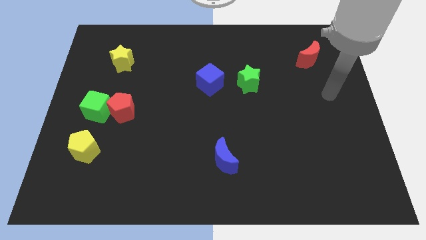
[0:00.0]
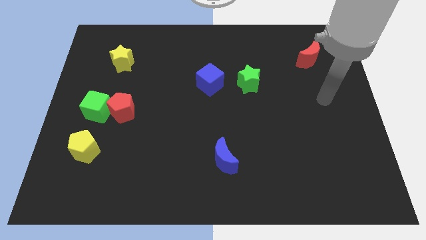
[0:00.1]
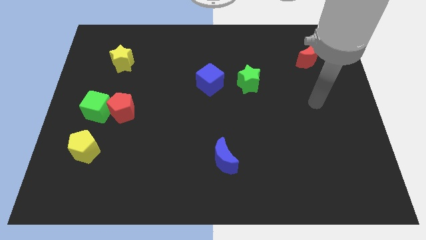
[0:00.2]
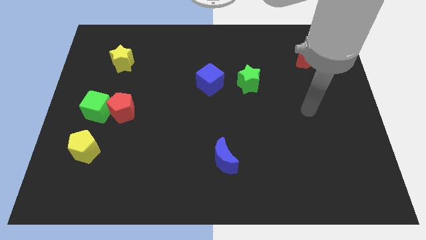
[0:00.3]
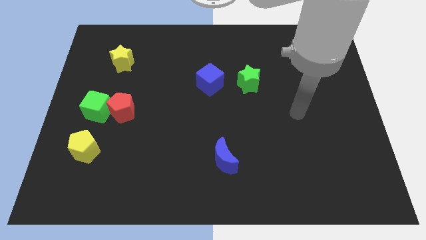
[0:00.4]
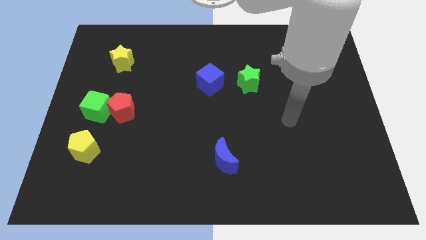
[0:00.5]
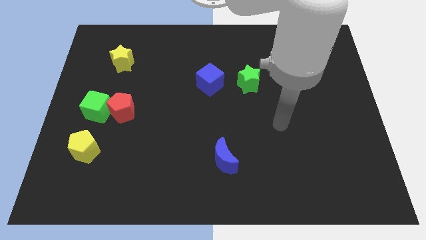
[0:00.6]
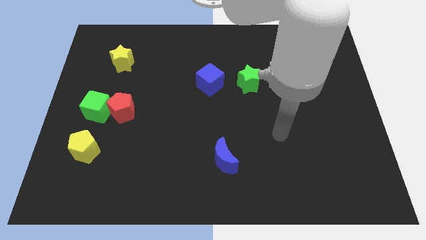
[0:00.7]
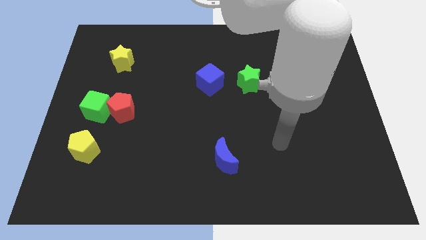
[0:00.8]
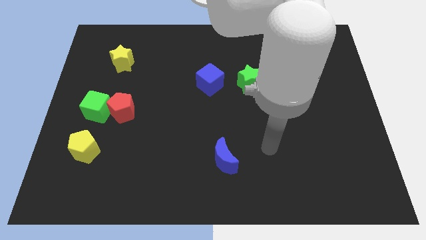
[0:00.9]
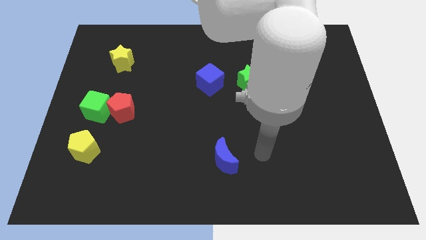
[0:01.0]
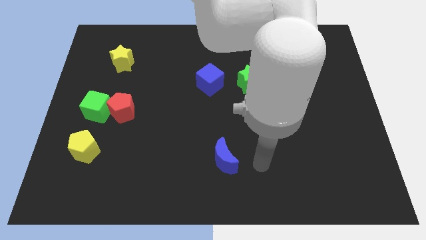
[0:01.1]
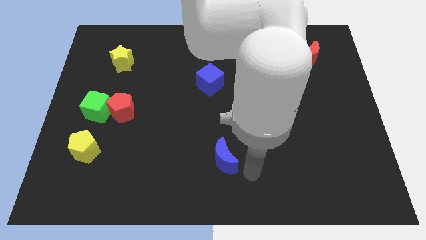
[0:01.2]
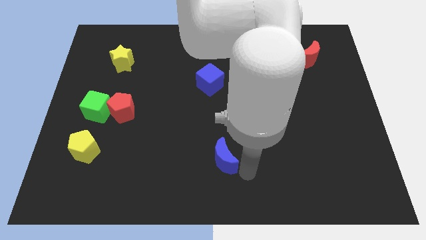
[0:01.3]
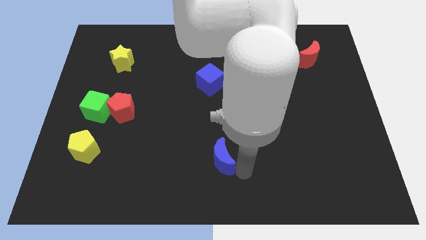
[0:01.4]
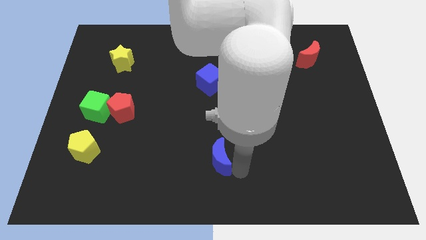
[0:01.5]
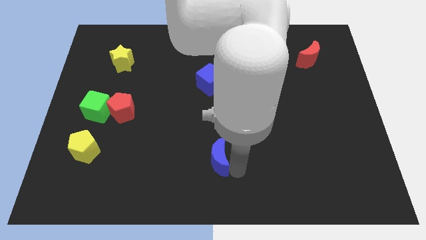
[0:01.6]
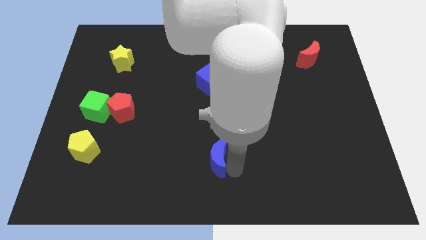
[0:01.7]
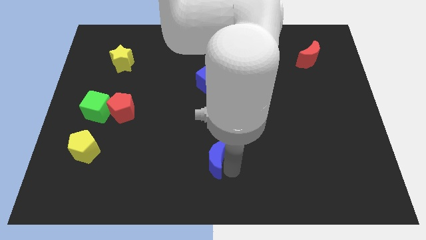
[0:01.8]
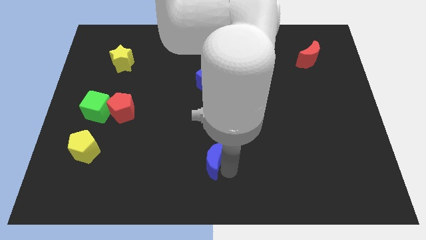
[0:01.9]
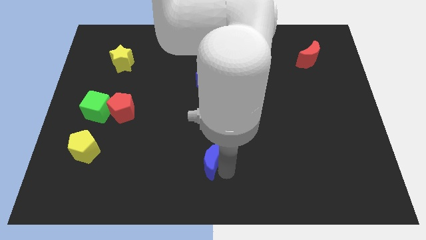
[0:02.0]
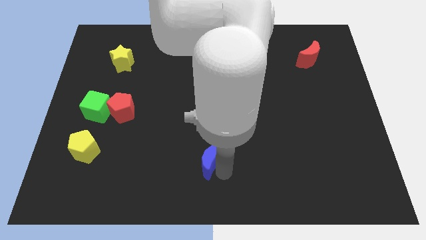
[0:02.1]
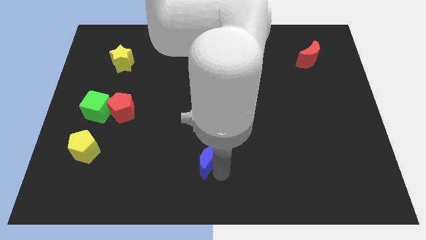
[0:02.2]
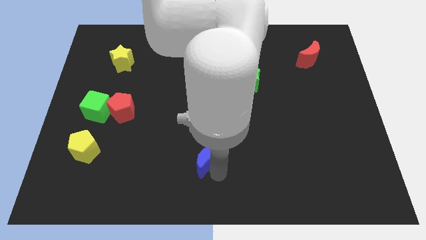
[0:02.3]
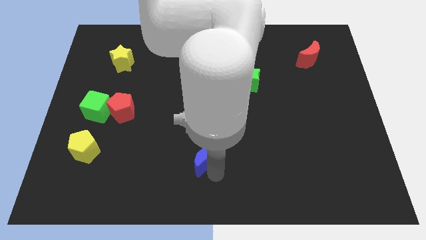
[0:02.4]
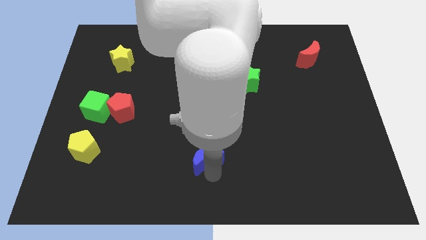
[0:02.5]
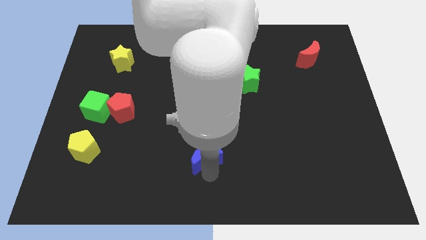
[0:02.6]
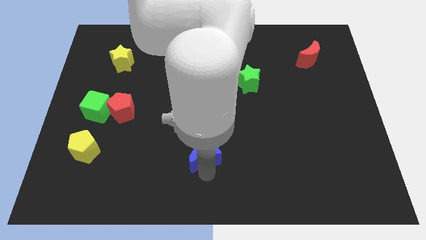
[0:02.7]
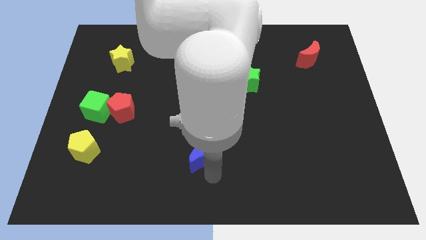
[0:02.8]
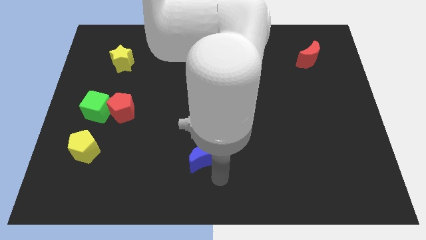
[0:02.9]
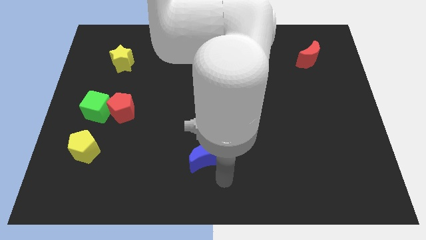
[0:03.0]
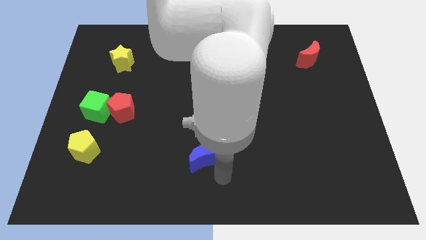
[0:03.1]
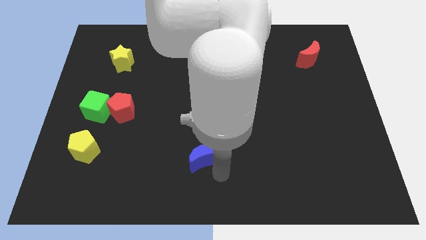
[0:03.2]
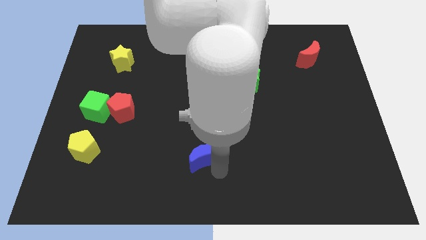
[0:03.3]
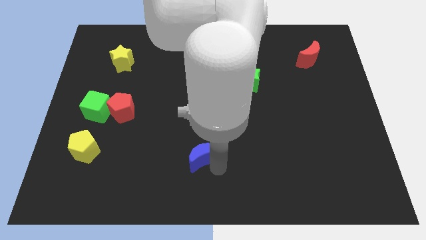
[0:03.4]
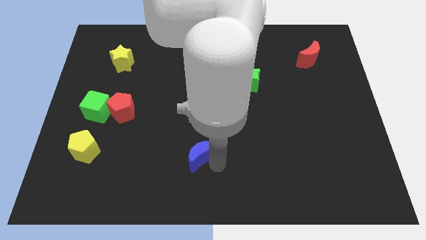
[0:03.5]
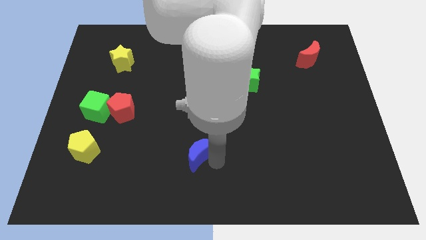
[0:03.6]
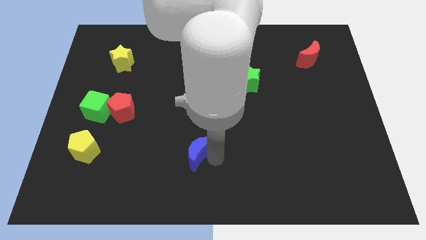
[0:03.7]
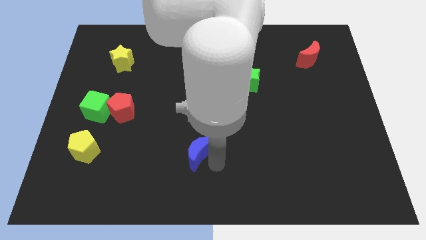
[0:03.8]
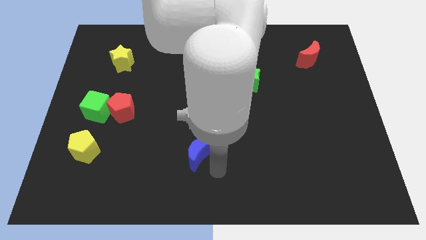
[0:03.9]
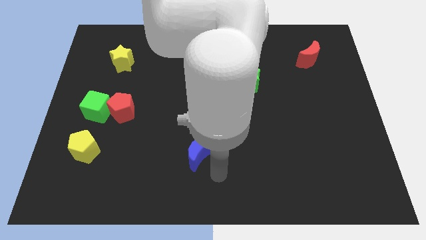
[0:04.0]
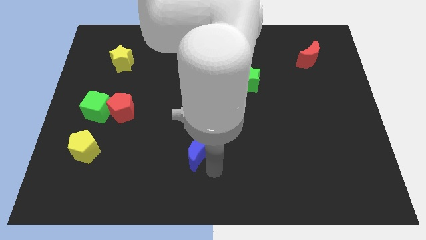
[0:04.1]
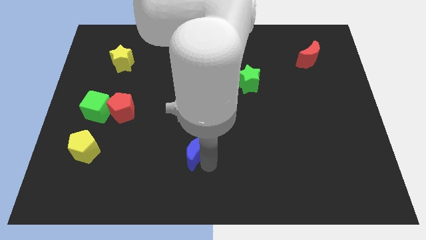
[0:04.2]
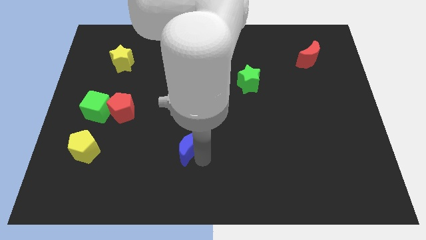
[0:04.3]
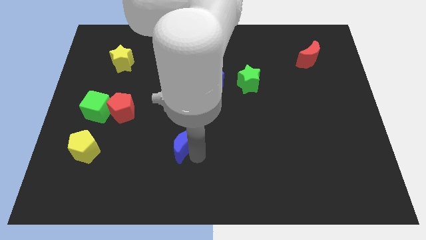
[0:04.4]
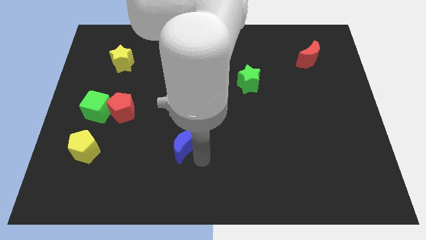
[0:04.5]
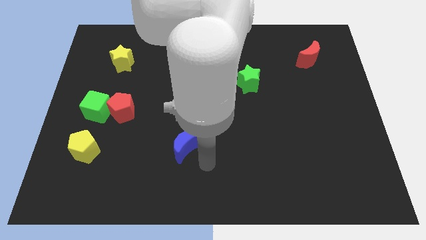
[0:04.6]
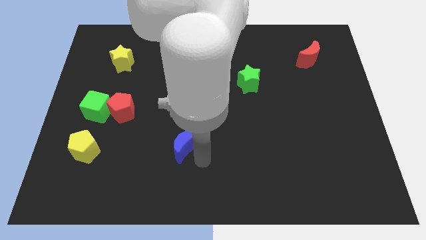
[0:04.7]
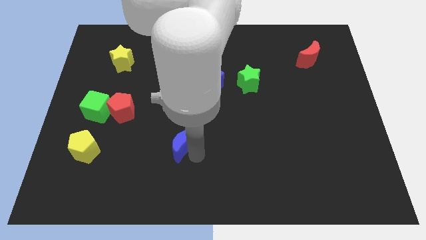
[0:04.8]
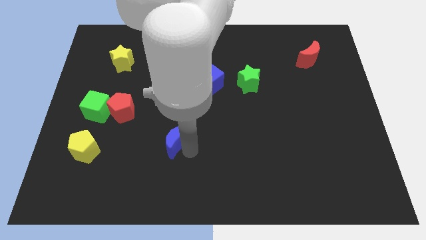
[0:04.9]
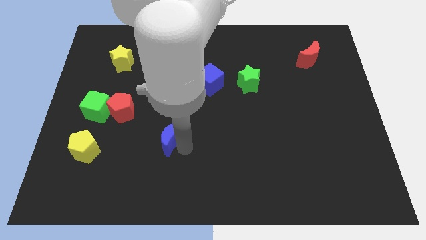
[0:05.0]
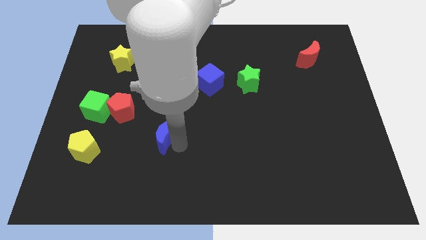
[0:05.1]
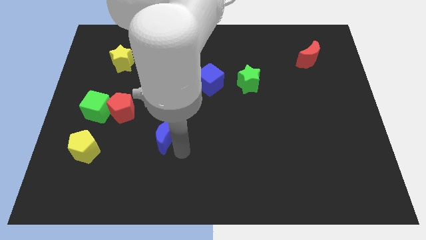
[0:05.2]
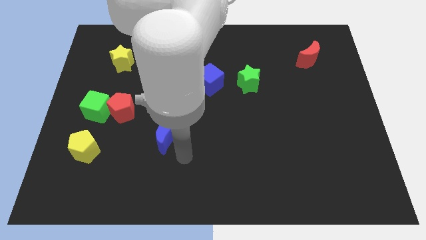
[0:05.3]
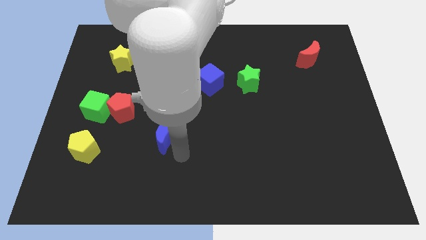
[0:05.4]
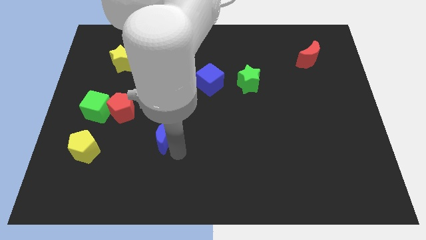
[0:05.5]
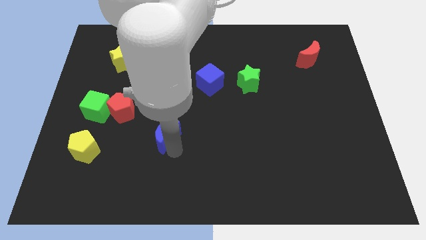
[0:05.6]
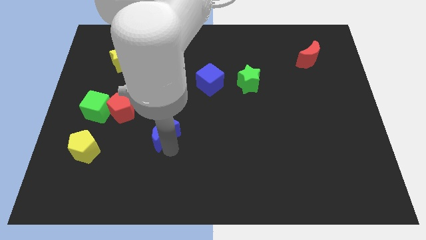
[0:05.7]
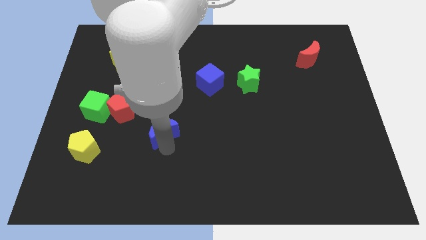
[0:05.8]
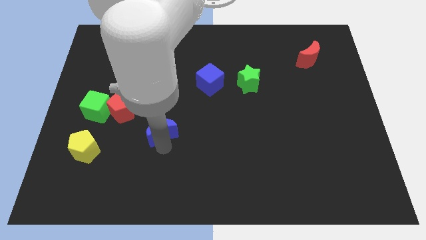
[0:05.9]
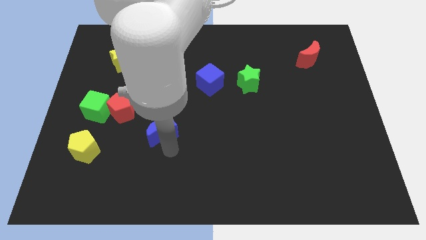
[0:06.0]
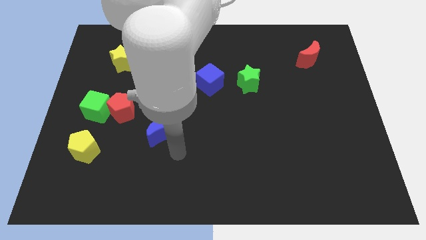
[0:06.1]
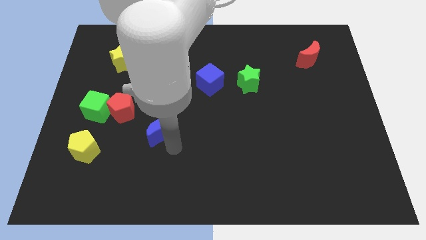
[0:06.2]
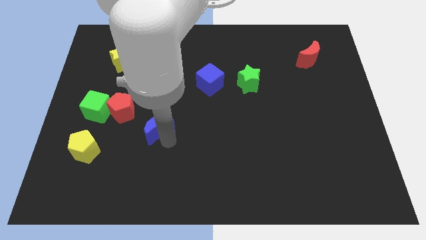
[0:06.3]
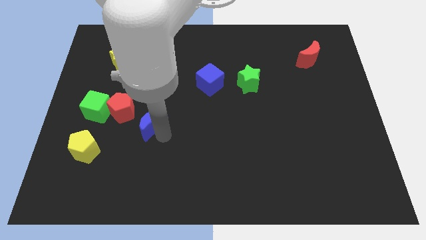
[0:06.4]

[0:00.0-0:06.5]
put the blue moon to the right of the green cube
